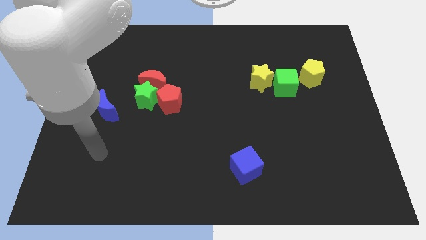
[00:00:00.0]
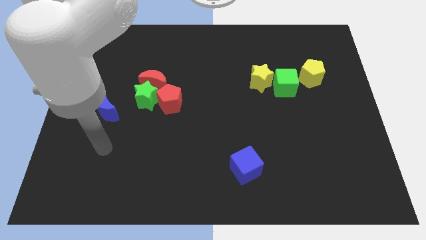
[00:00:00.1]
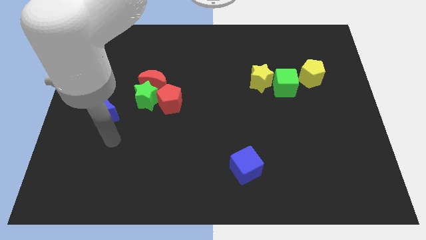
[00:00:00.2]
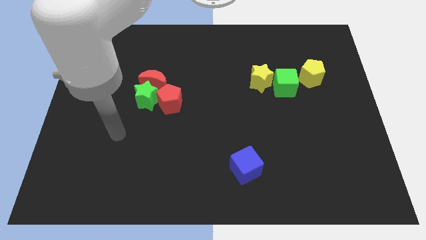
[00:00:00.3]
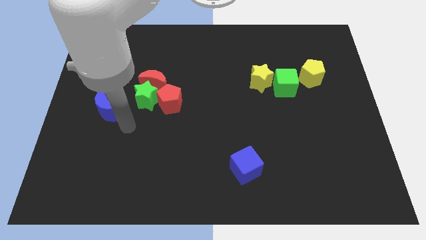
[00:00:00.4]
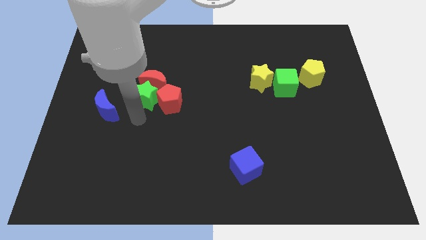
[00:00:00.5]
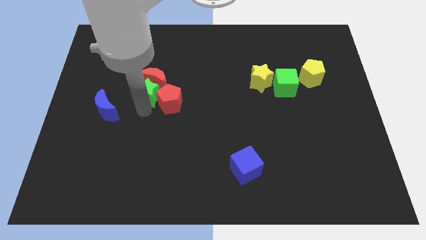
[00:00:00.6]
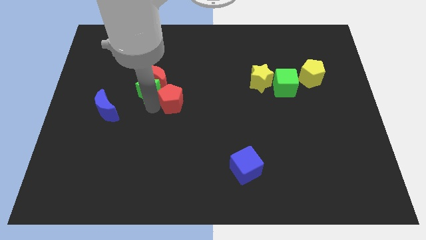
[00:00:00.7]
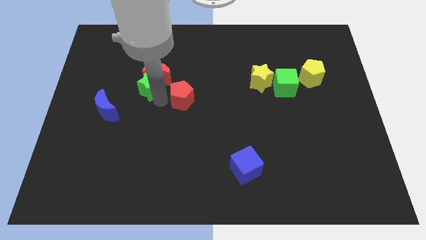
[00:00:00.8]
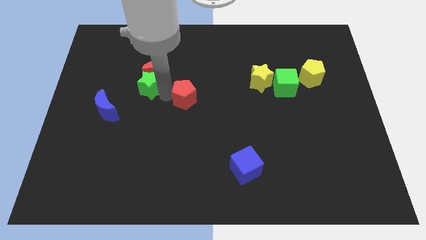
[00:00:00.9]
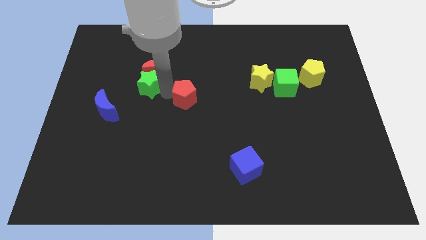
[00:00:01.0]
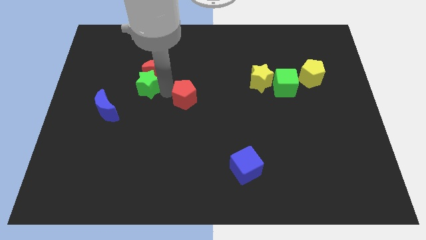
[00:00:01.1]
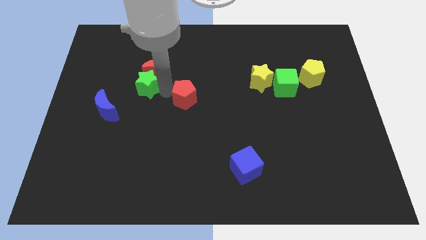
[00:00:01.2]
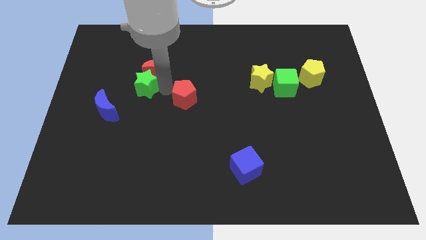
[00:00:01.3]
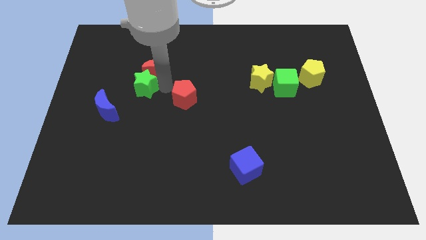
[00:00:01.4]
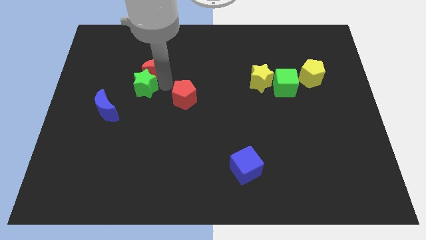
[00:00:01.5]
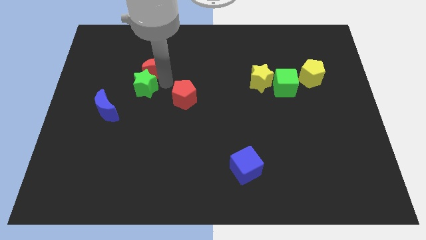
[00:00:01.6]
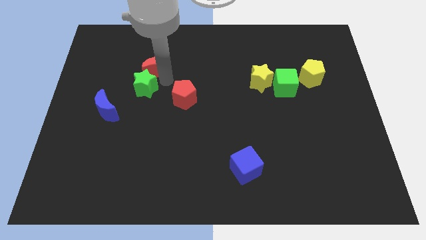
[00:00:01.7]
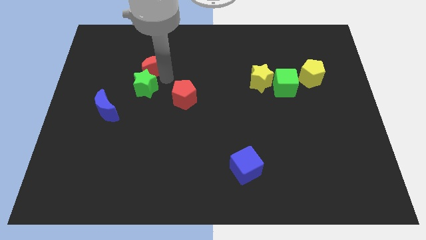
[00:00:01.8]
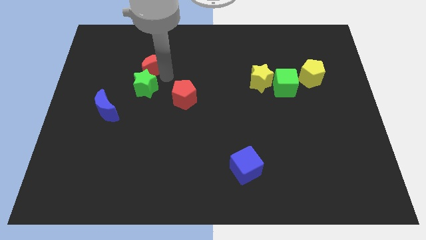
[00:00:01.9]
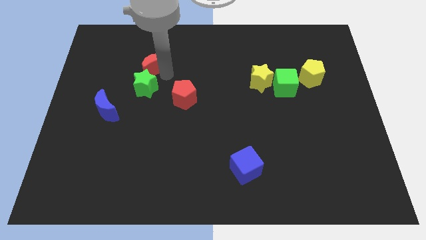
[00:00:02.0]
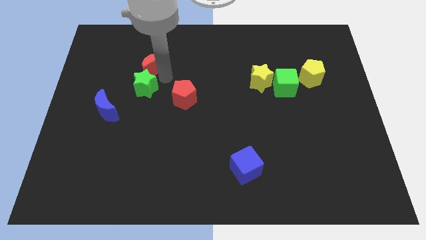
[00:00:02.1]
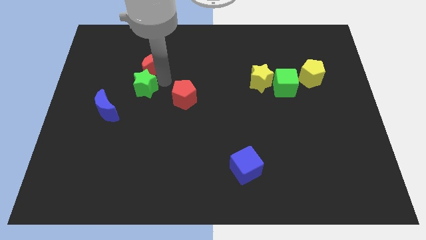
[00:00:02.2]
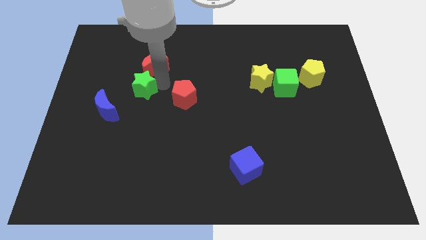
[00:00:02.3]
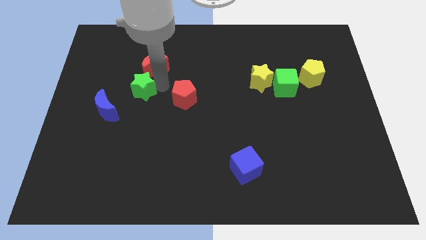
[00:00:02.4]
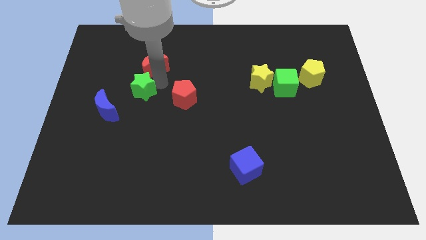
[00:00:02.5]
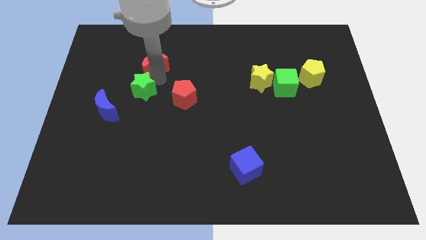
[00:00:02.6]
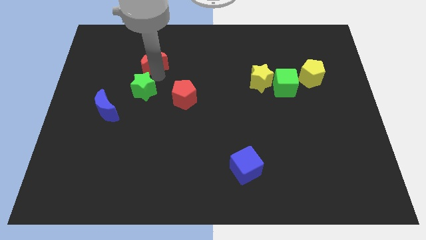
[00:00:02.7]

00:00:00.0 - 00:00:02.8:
move the red moon away from the green star and red pentagon

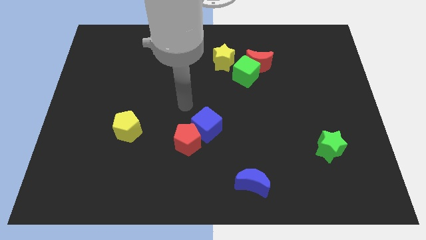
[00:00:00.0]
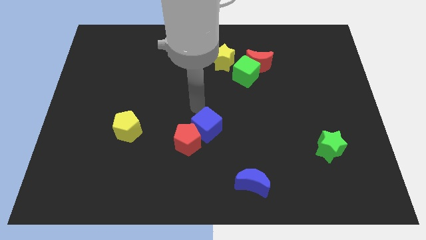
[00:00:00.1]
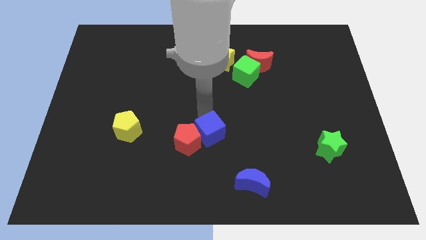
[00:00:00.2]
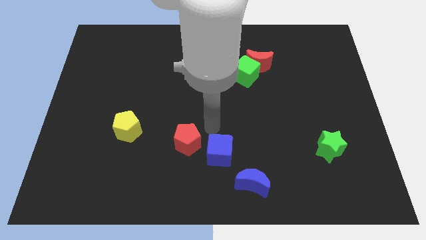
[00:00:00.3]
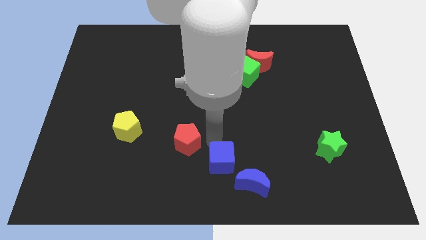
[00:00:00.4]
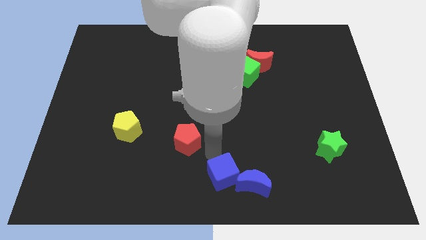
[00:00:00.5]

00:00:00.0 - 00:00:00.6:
move the red pentagon away from the blue cube

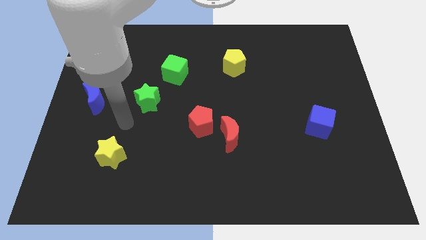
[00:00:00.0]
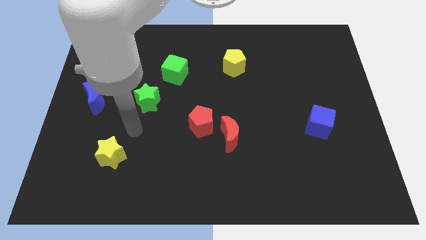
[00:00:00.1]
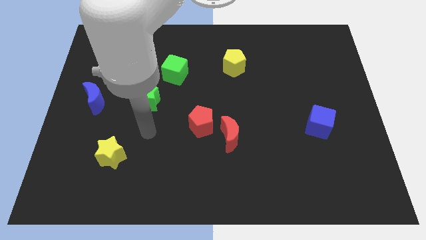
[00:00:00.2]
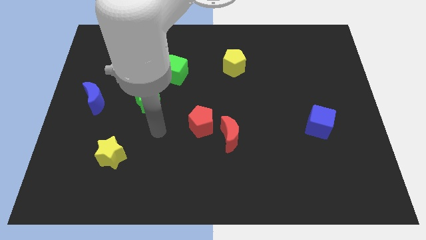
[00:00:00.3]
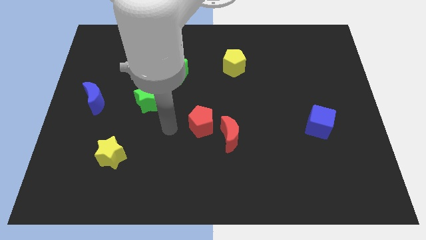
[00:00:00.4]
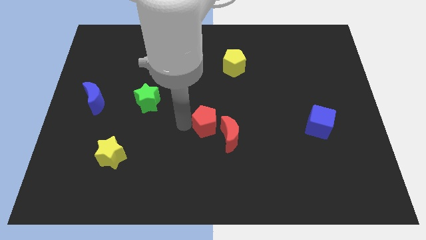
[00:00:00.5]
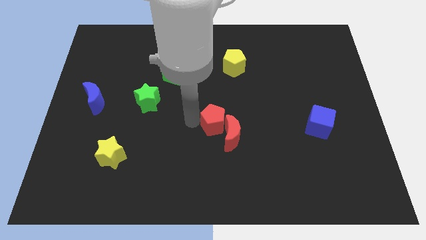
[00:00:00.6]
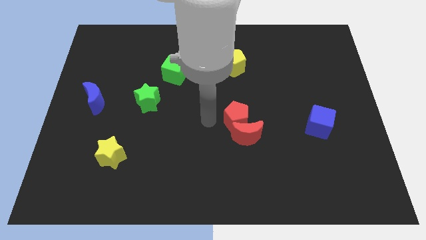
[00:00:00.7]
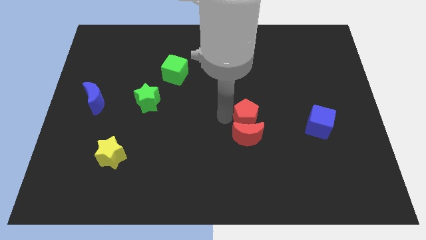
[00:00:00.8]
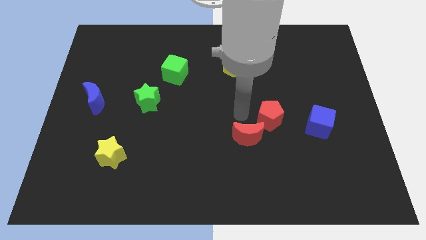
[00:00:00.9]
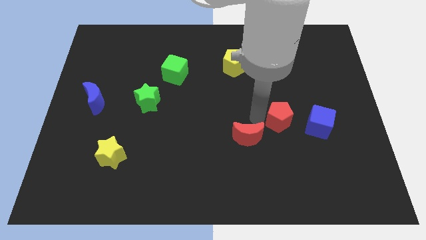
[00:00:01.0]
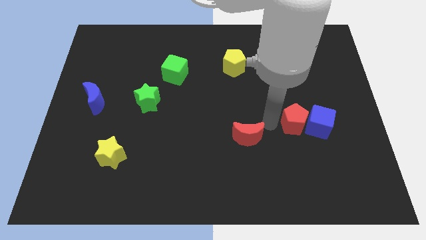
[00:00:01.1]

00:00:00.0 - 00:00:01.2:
pull the red moon apart from the red pentagon

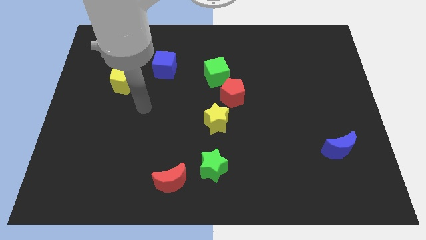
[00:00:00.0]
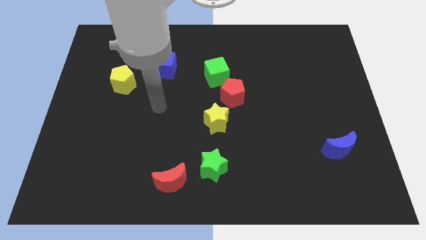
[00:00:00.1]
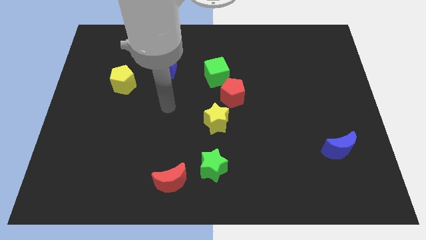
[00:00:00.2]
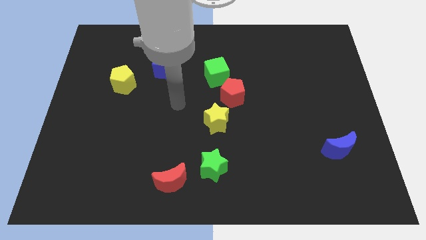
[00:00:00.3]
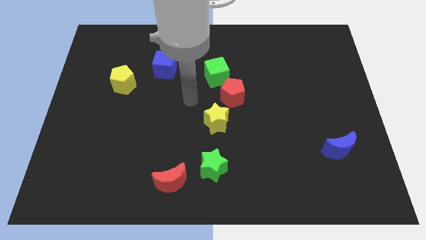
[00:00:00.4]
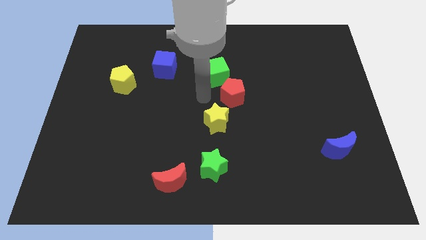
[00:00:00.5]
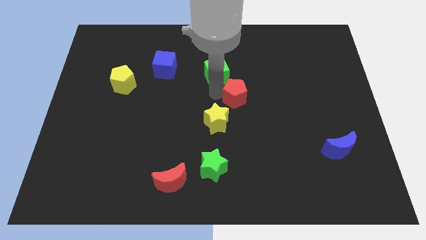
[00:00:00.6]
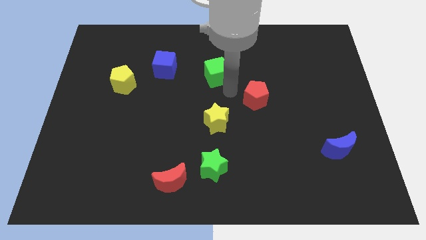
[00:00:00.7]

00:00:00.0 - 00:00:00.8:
move the green cube away from the red pentagon

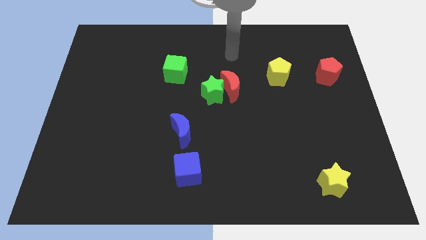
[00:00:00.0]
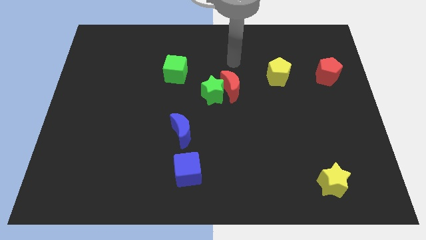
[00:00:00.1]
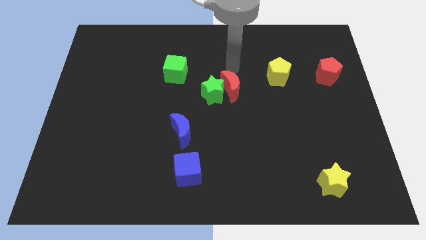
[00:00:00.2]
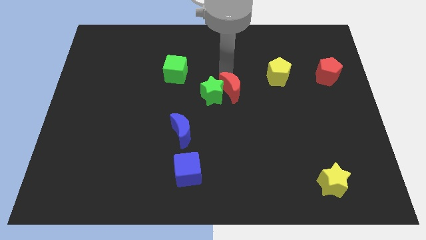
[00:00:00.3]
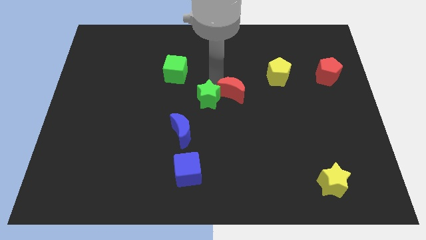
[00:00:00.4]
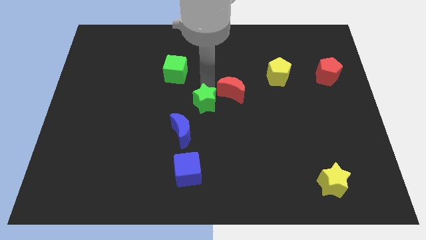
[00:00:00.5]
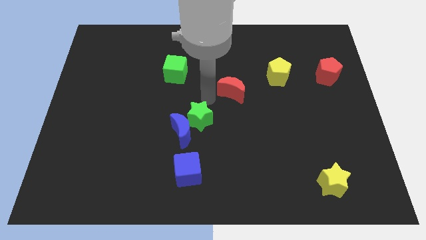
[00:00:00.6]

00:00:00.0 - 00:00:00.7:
separate the red moon from the green star

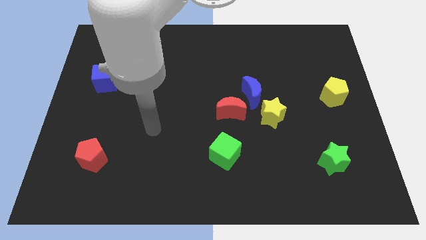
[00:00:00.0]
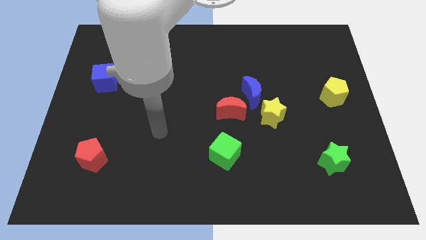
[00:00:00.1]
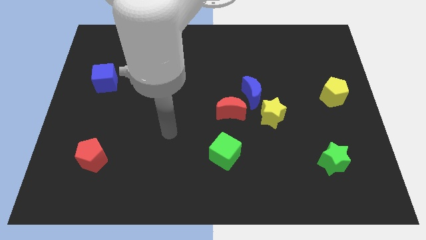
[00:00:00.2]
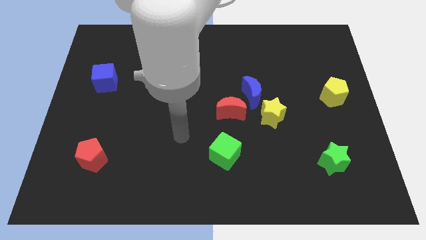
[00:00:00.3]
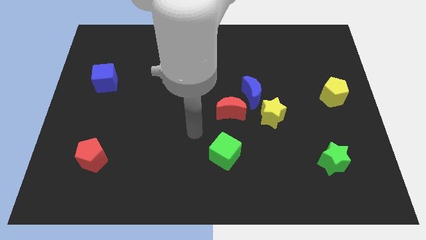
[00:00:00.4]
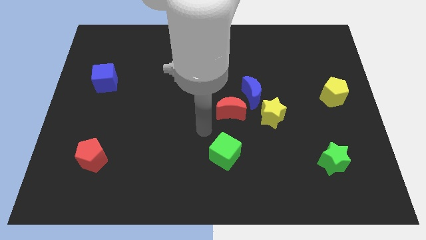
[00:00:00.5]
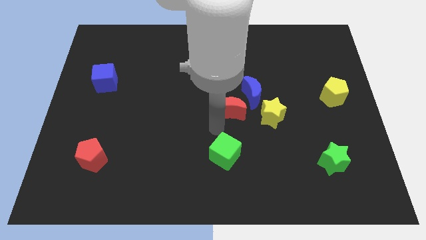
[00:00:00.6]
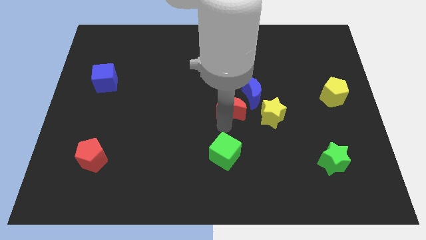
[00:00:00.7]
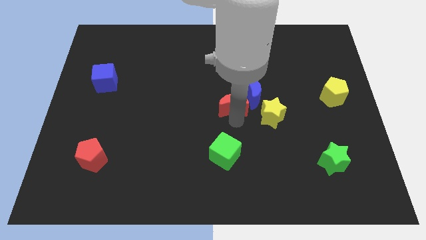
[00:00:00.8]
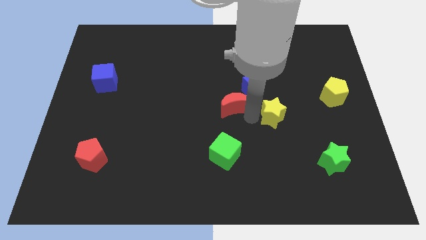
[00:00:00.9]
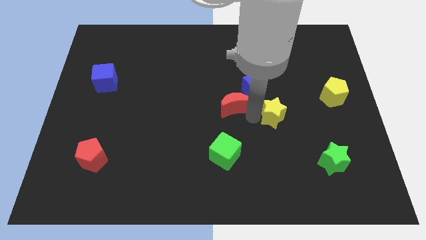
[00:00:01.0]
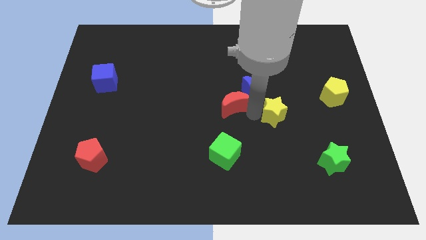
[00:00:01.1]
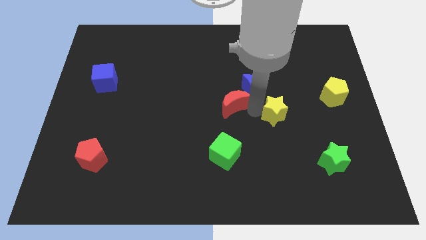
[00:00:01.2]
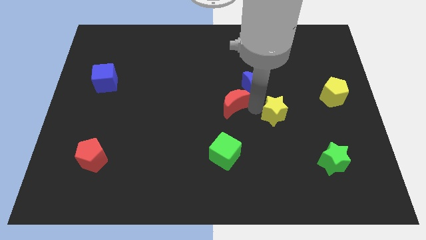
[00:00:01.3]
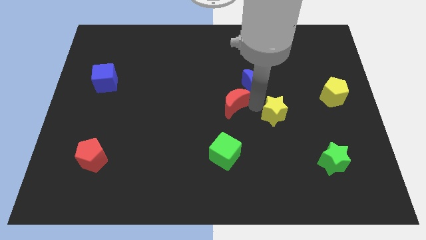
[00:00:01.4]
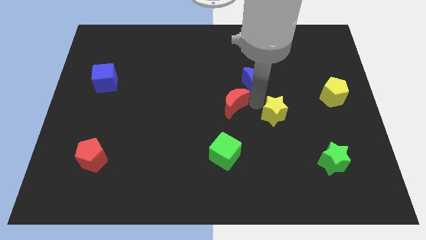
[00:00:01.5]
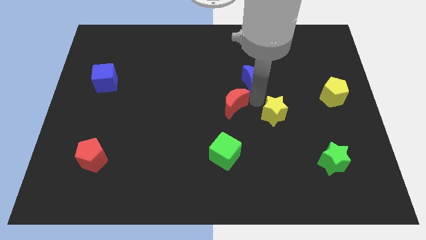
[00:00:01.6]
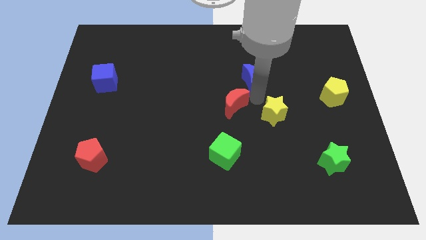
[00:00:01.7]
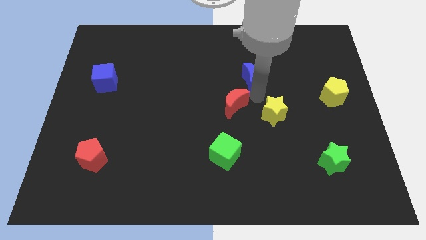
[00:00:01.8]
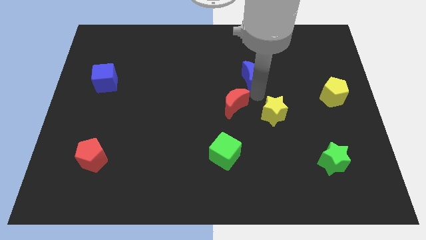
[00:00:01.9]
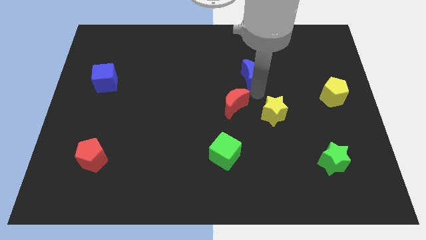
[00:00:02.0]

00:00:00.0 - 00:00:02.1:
pull the blue moon apart from the red moon and yellow star

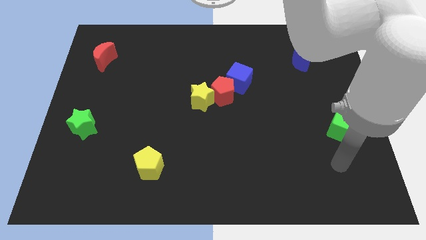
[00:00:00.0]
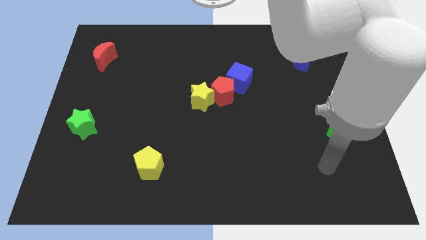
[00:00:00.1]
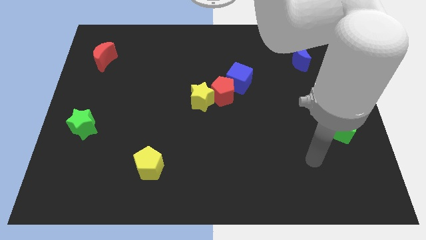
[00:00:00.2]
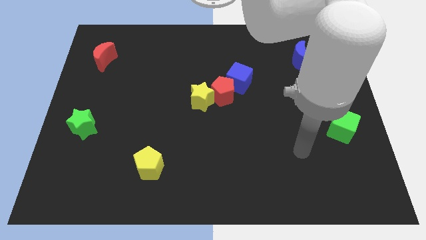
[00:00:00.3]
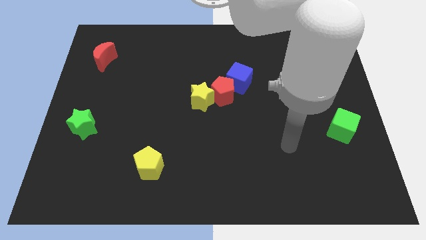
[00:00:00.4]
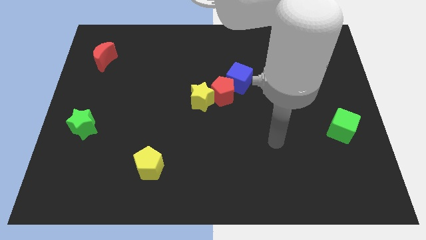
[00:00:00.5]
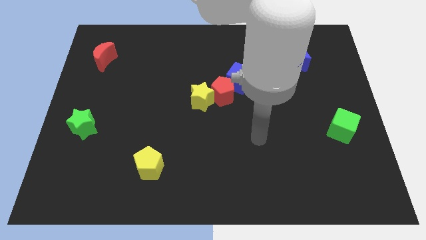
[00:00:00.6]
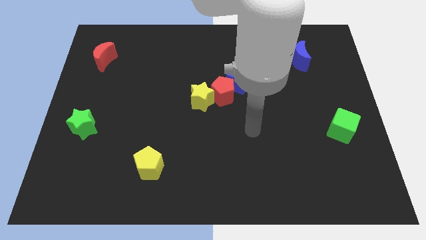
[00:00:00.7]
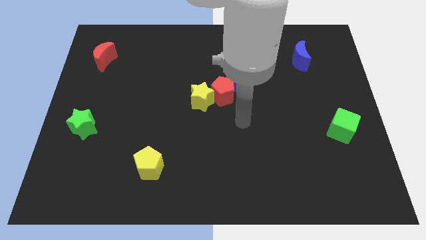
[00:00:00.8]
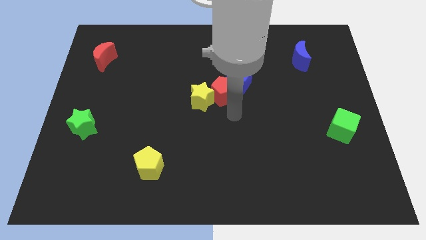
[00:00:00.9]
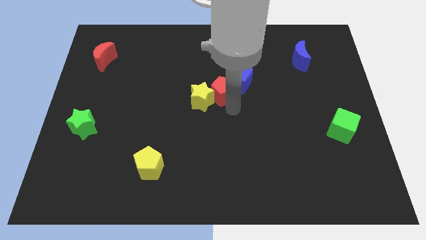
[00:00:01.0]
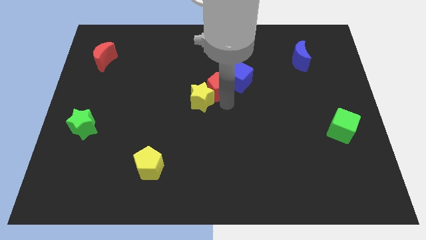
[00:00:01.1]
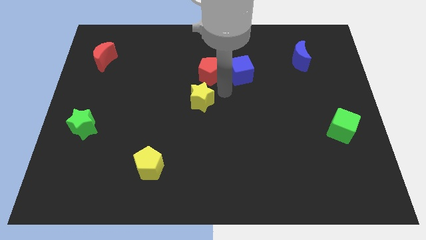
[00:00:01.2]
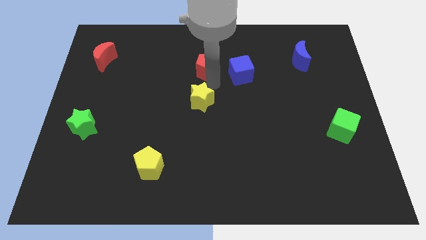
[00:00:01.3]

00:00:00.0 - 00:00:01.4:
pull the yellow star apart from the red pentagon
